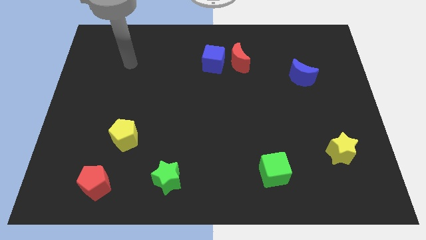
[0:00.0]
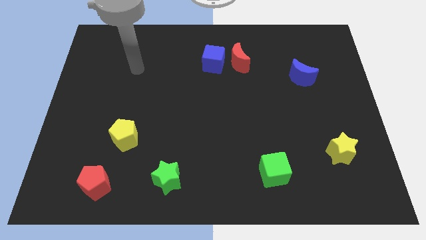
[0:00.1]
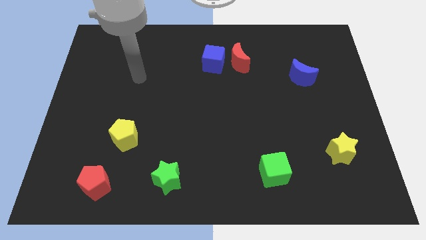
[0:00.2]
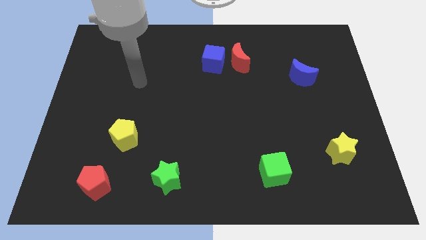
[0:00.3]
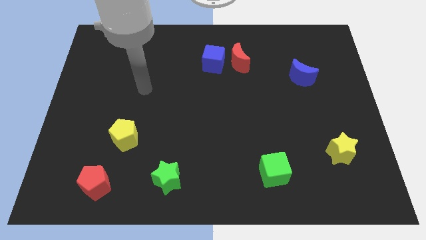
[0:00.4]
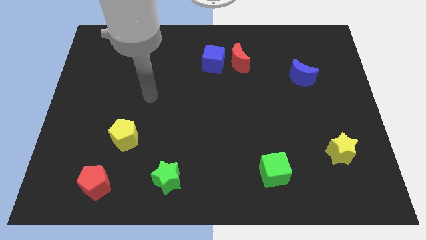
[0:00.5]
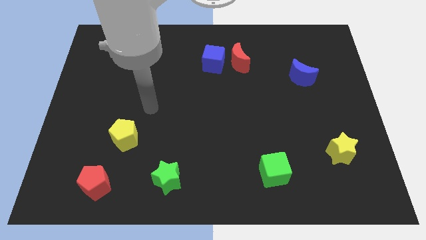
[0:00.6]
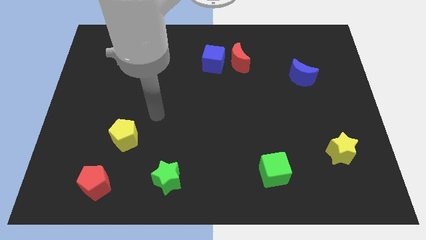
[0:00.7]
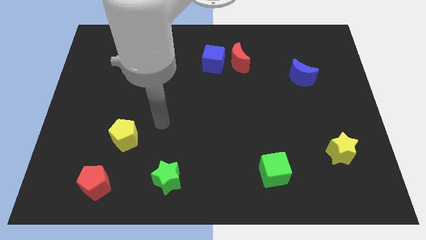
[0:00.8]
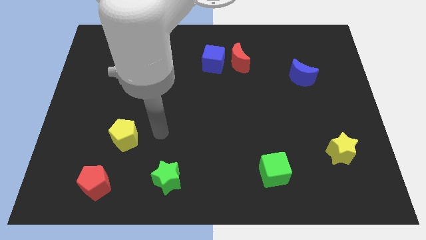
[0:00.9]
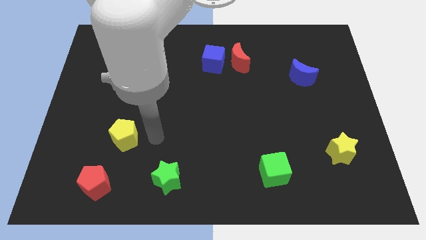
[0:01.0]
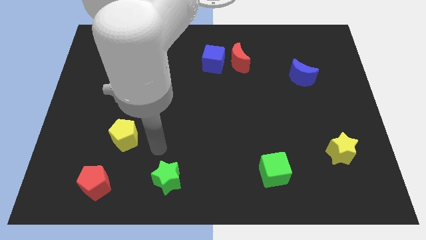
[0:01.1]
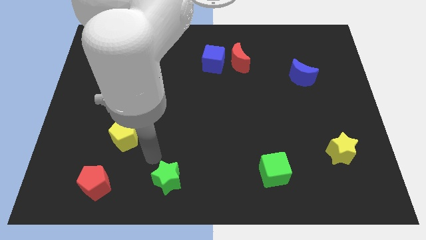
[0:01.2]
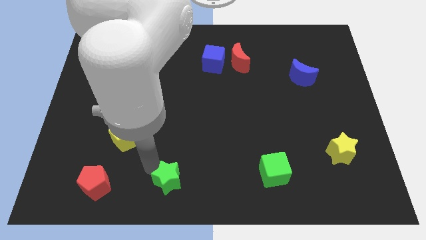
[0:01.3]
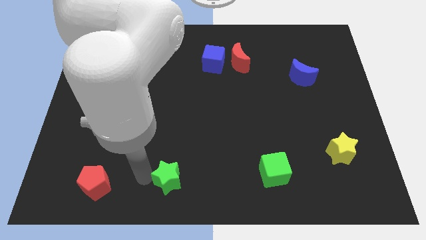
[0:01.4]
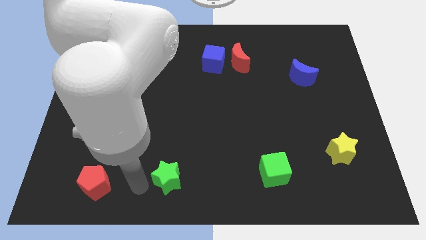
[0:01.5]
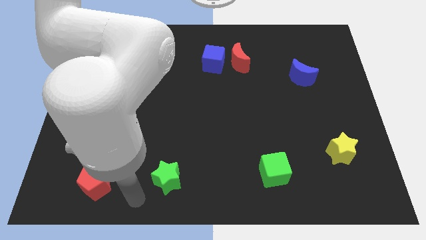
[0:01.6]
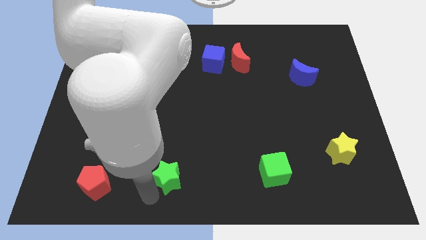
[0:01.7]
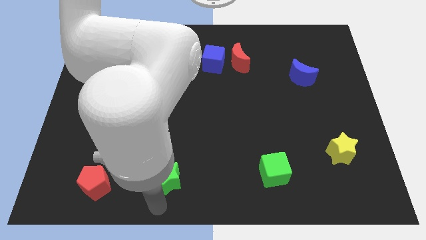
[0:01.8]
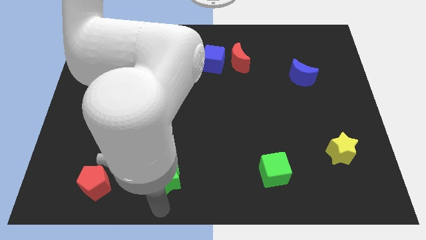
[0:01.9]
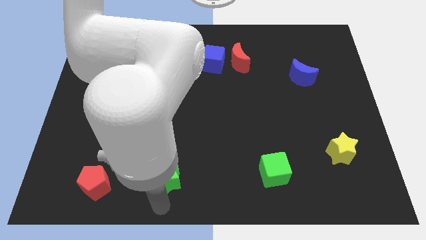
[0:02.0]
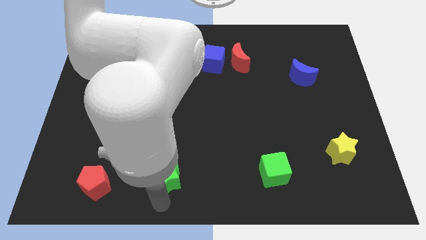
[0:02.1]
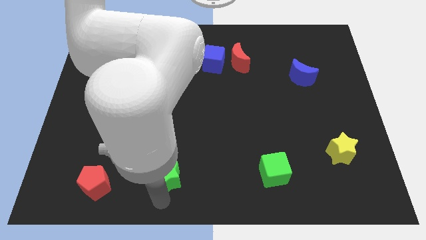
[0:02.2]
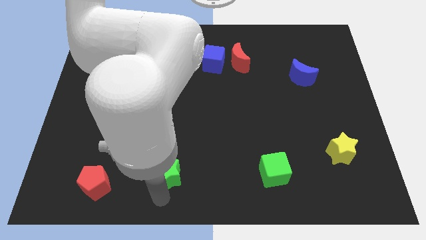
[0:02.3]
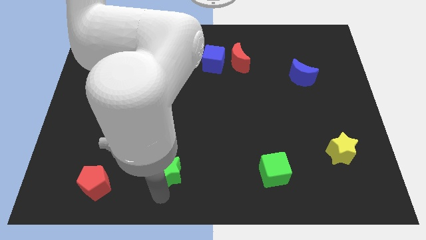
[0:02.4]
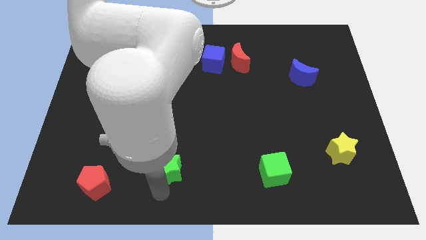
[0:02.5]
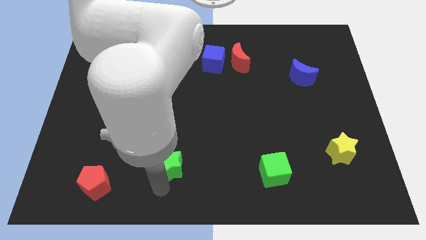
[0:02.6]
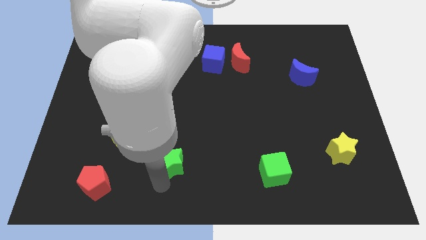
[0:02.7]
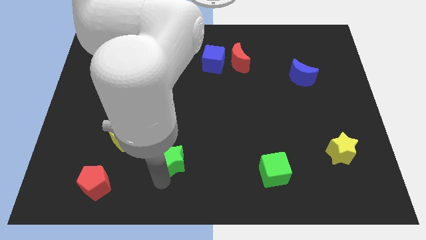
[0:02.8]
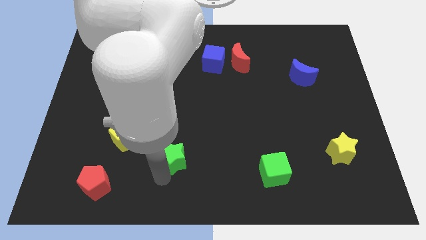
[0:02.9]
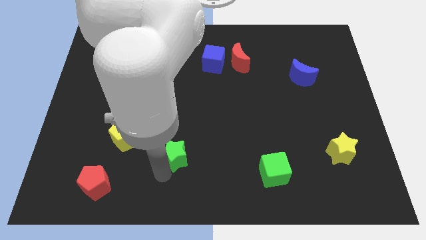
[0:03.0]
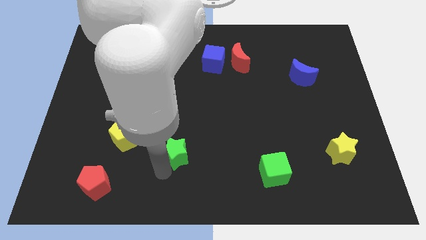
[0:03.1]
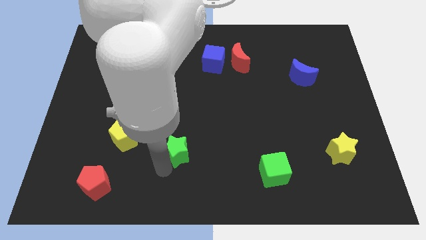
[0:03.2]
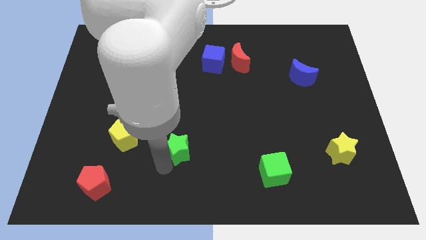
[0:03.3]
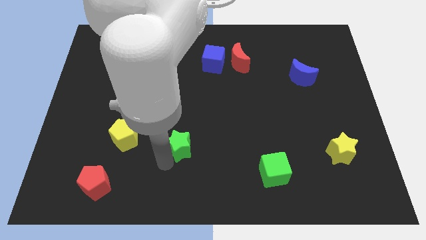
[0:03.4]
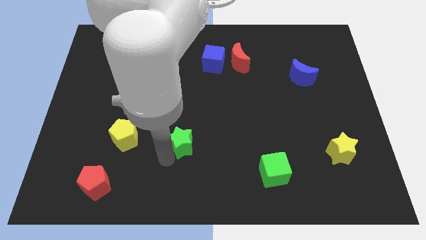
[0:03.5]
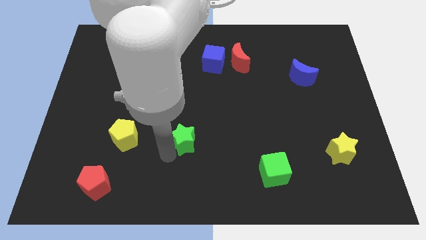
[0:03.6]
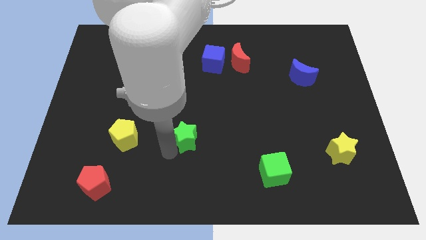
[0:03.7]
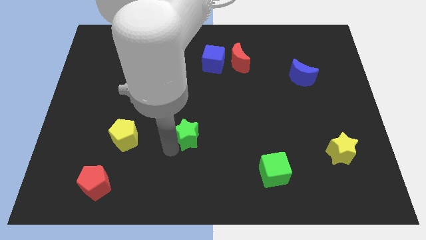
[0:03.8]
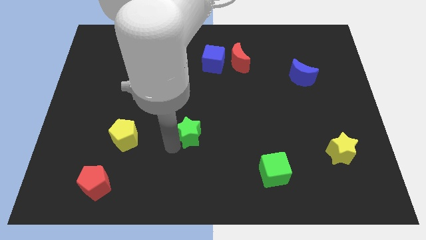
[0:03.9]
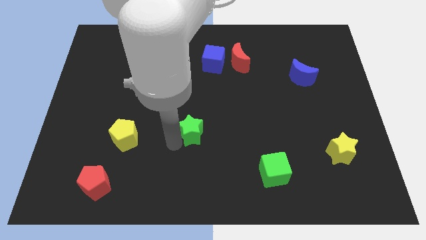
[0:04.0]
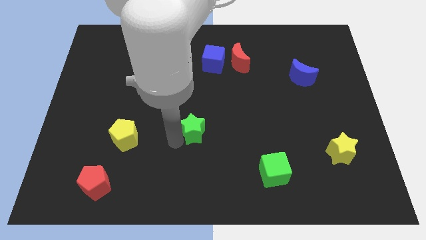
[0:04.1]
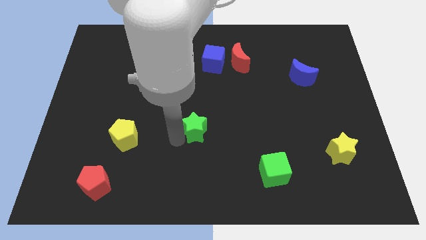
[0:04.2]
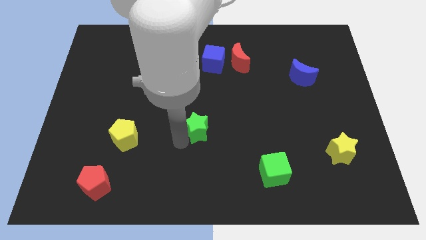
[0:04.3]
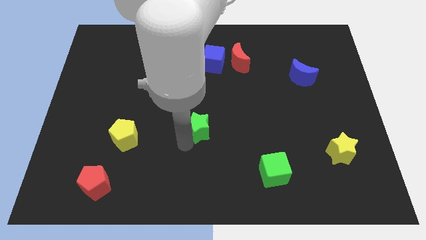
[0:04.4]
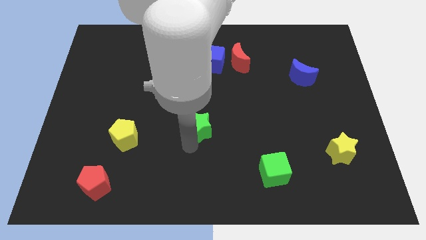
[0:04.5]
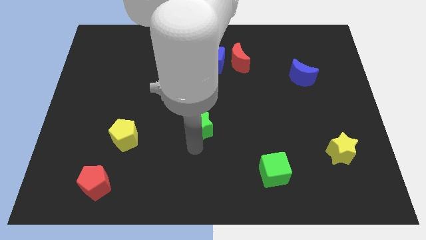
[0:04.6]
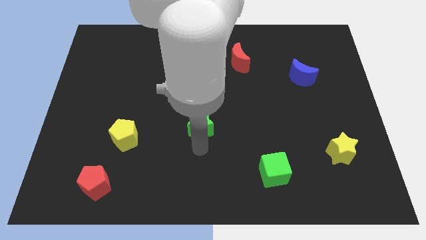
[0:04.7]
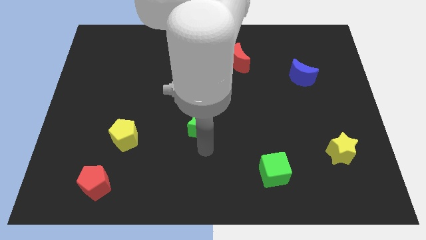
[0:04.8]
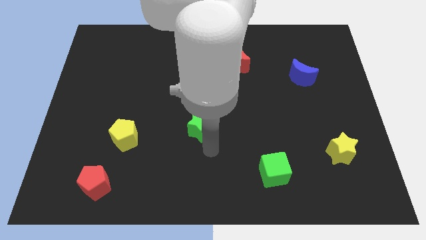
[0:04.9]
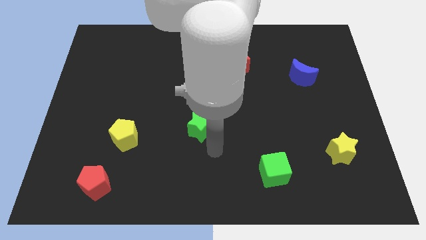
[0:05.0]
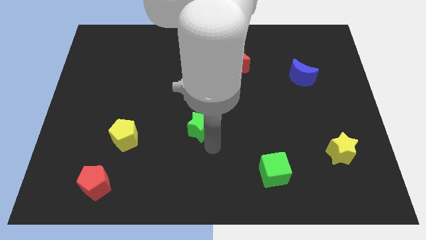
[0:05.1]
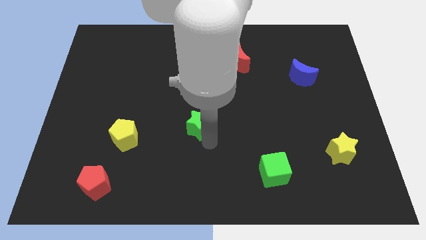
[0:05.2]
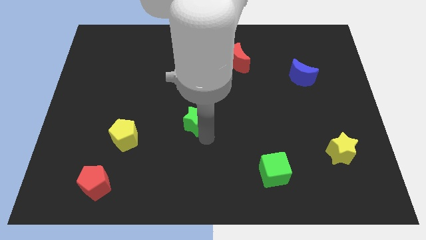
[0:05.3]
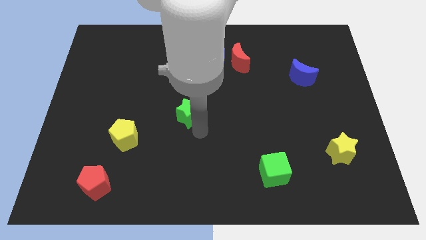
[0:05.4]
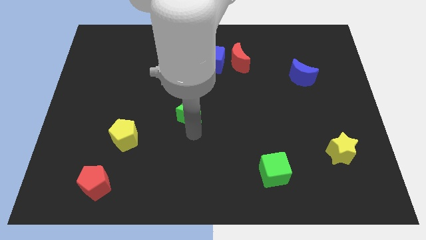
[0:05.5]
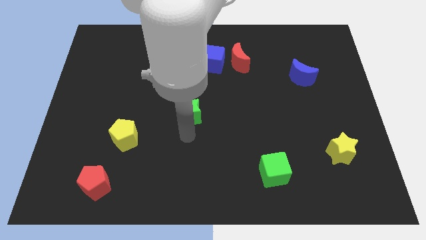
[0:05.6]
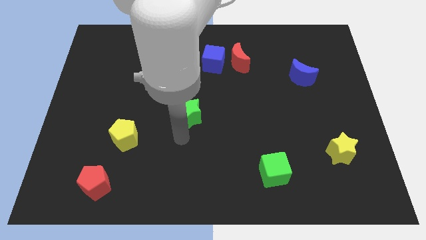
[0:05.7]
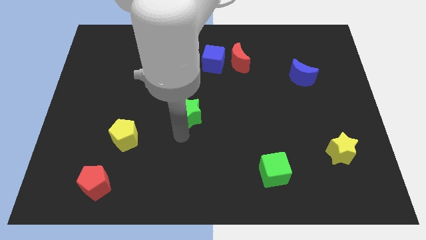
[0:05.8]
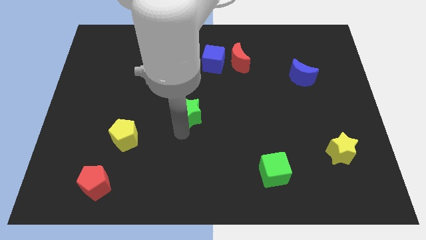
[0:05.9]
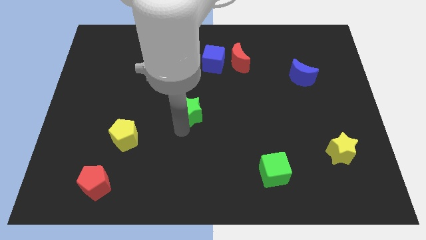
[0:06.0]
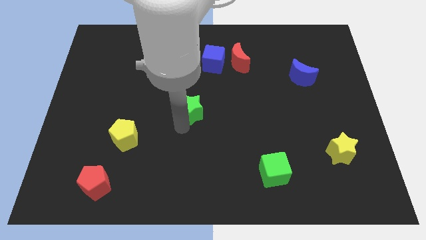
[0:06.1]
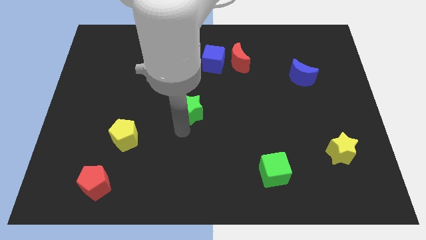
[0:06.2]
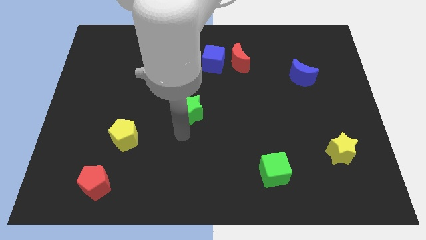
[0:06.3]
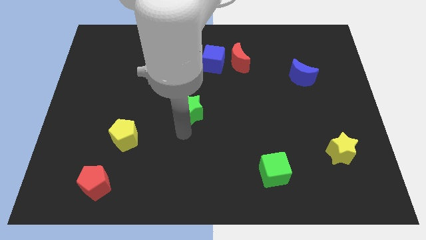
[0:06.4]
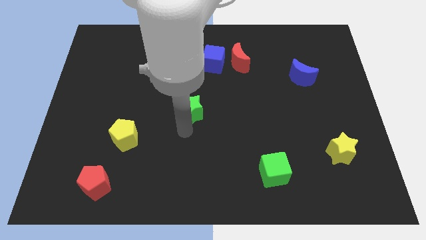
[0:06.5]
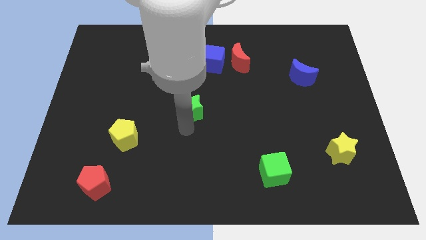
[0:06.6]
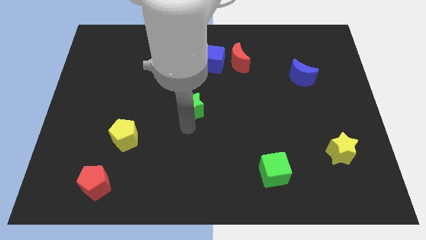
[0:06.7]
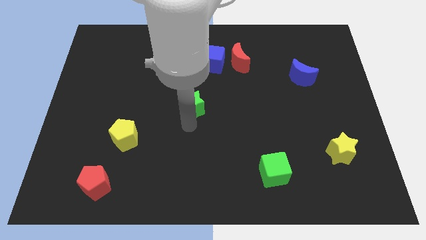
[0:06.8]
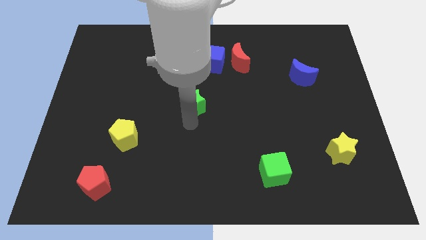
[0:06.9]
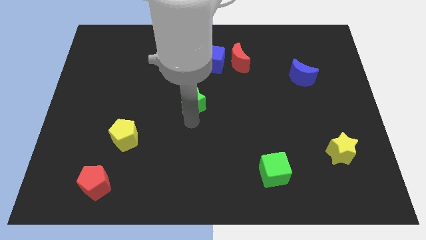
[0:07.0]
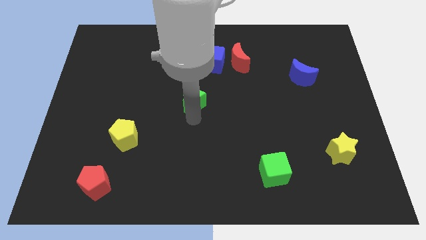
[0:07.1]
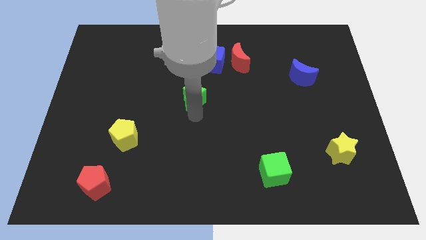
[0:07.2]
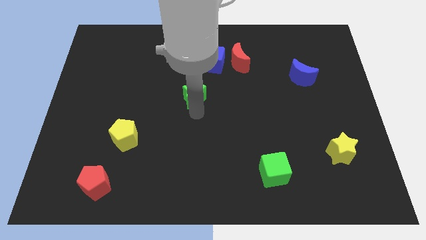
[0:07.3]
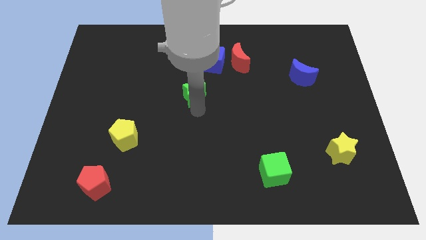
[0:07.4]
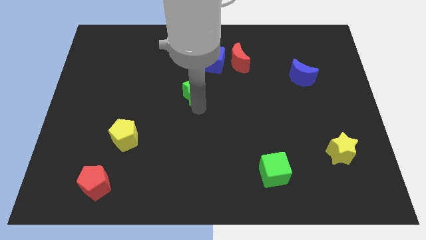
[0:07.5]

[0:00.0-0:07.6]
slide the green star to the bottom left side of the blue cube
